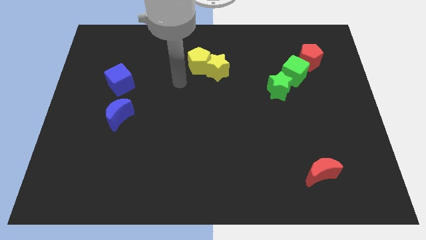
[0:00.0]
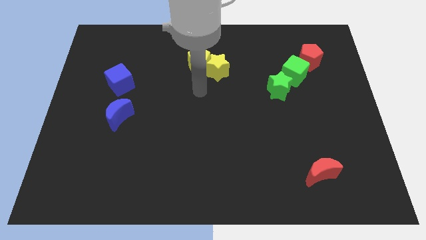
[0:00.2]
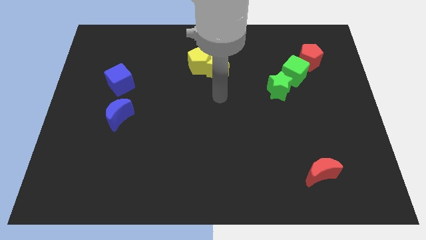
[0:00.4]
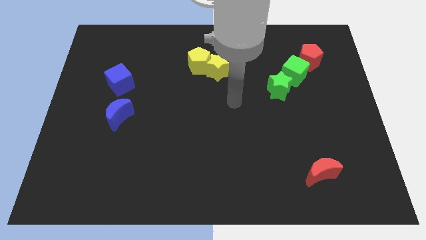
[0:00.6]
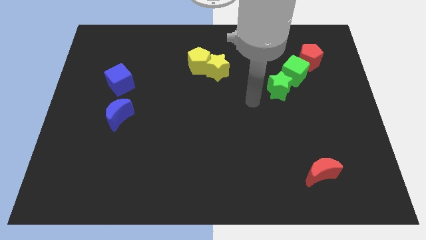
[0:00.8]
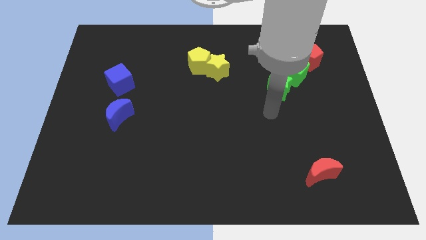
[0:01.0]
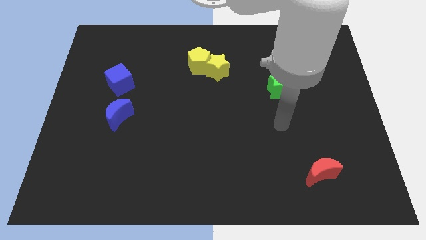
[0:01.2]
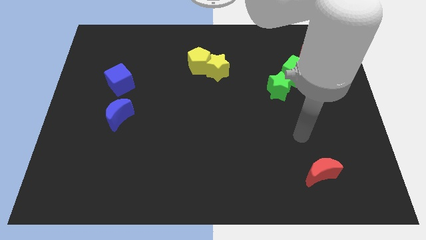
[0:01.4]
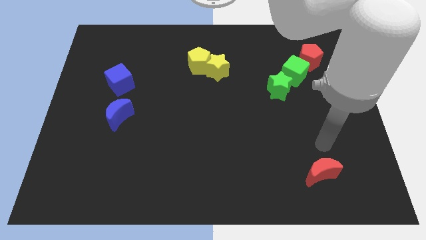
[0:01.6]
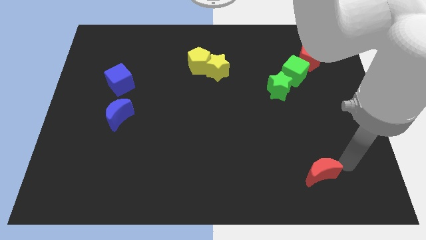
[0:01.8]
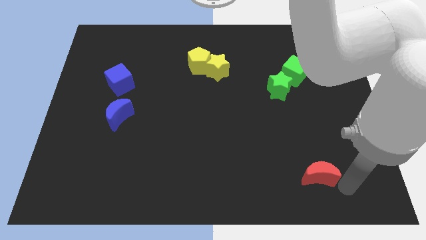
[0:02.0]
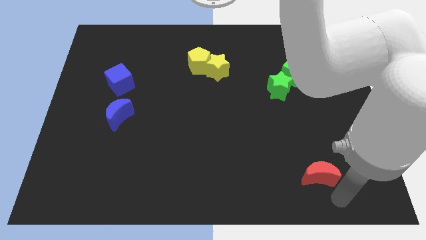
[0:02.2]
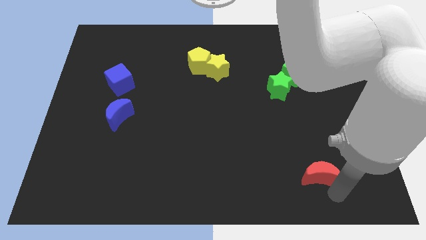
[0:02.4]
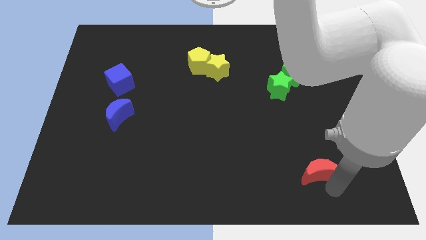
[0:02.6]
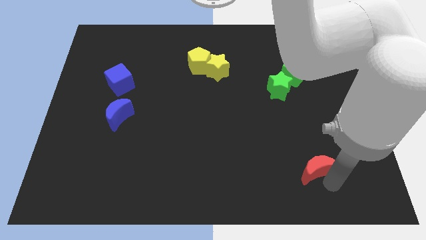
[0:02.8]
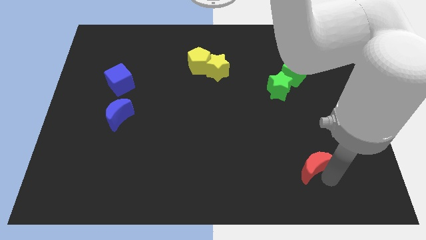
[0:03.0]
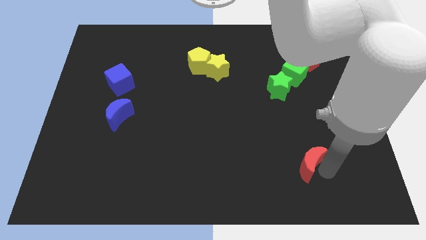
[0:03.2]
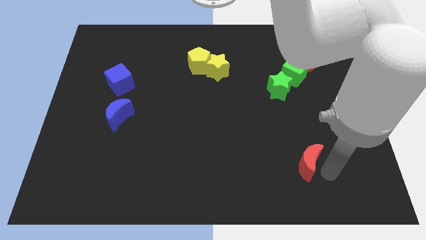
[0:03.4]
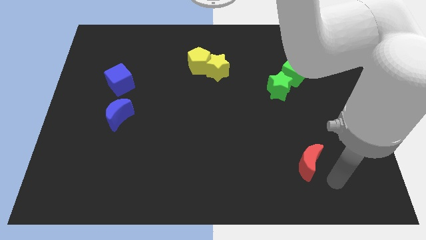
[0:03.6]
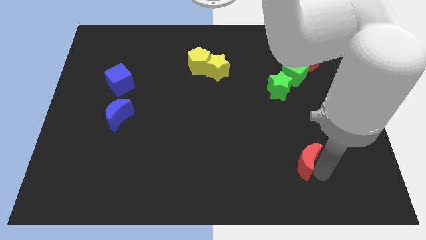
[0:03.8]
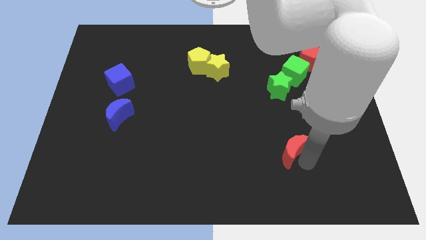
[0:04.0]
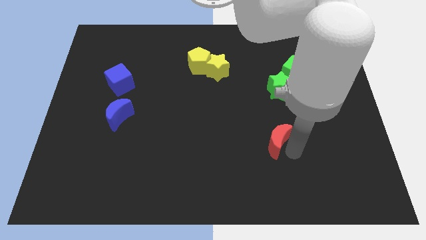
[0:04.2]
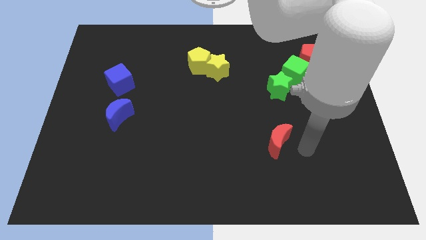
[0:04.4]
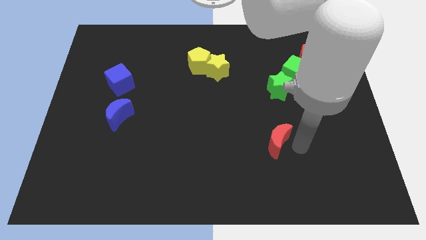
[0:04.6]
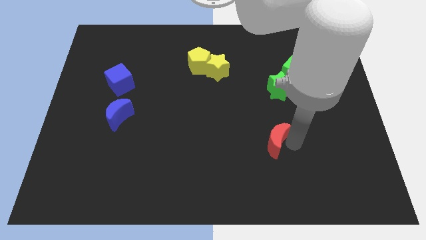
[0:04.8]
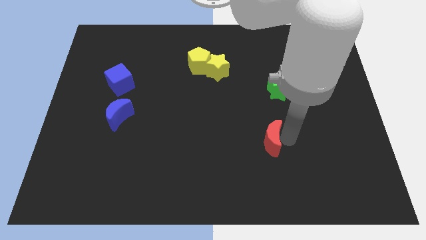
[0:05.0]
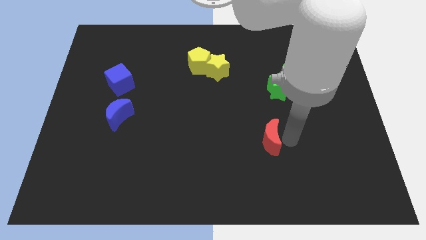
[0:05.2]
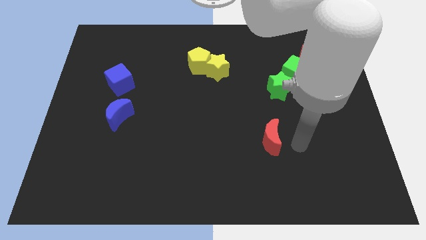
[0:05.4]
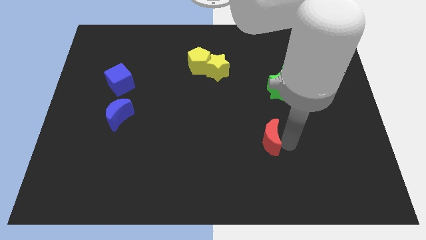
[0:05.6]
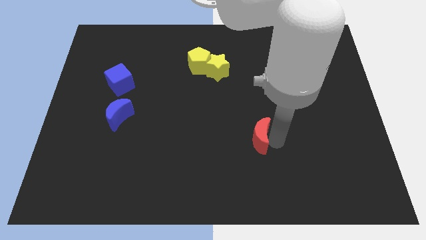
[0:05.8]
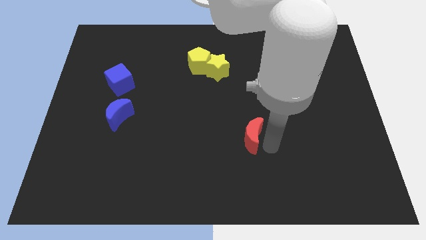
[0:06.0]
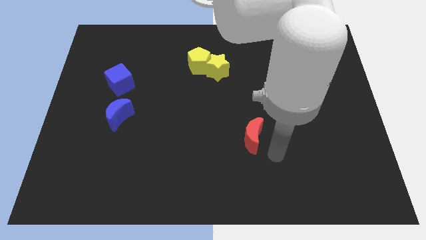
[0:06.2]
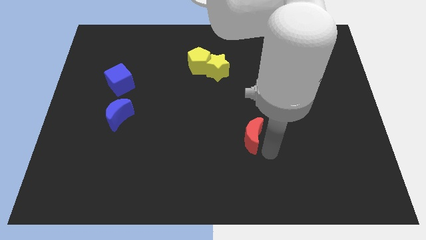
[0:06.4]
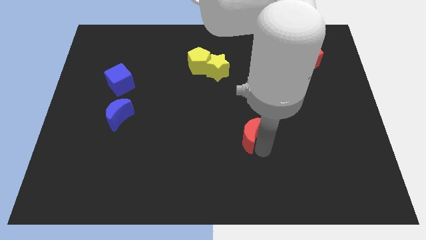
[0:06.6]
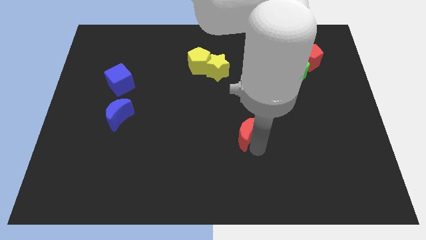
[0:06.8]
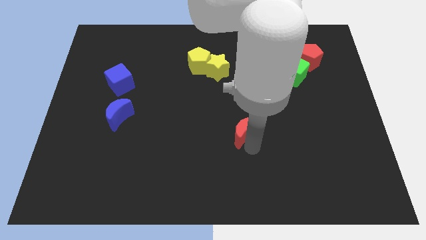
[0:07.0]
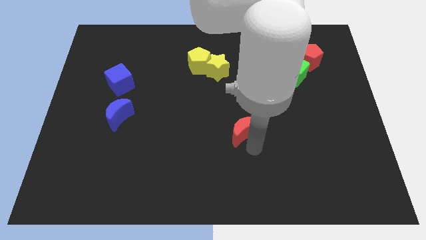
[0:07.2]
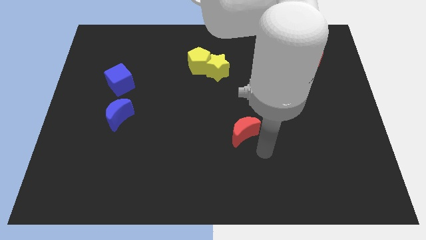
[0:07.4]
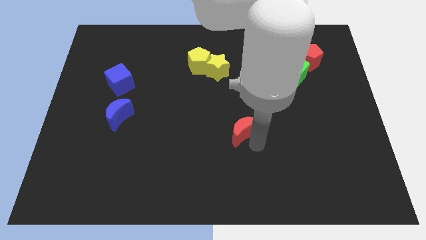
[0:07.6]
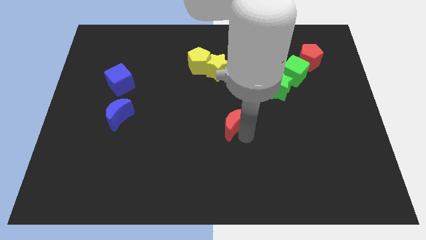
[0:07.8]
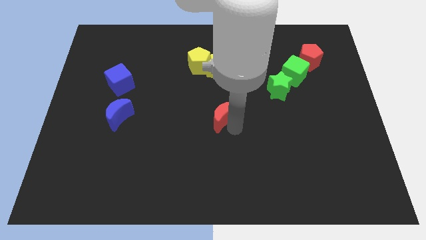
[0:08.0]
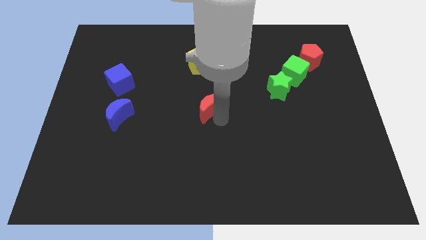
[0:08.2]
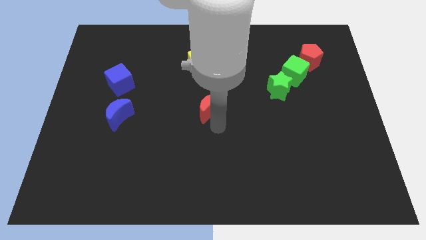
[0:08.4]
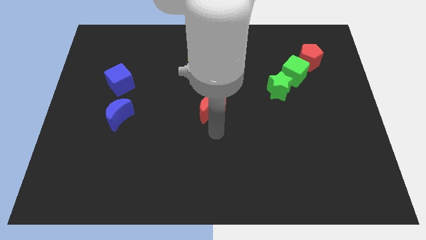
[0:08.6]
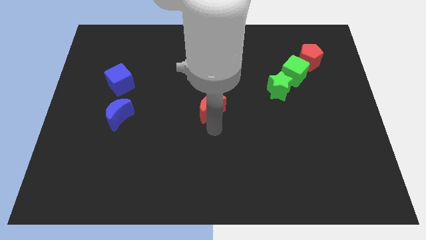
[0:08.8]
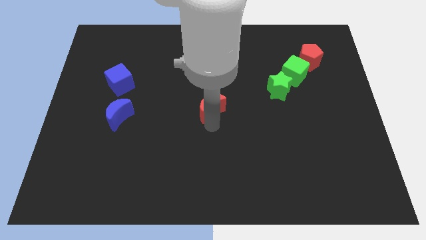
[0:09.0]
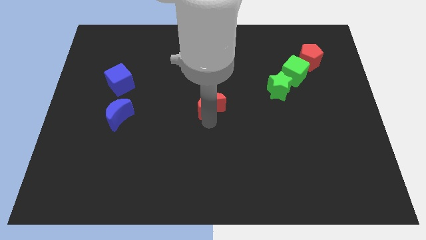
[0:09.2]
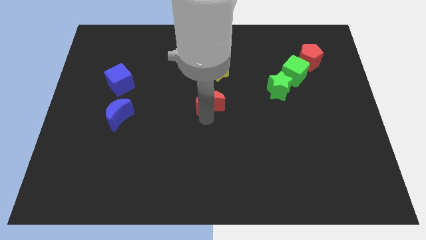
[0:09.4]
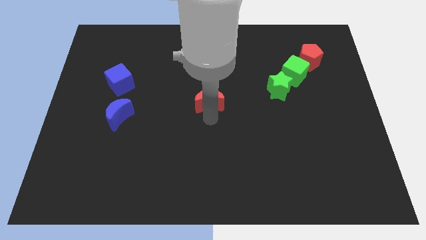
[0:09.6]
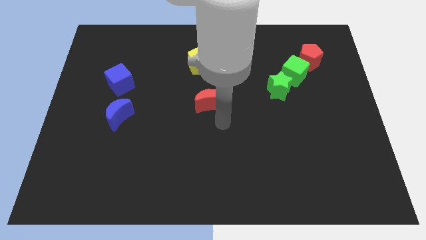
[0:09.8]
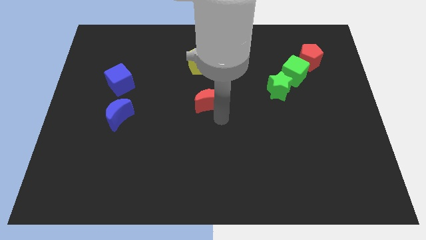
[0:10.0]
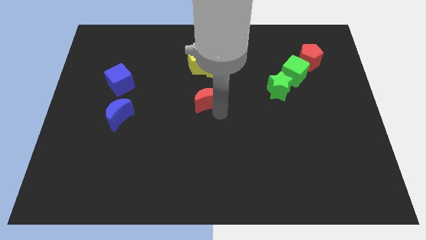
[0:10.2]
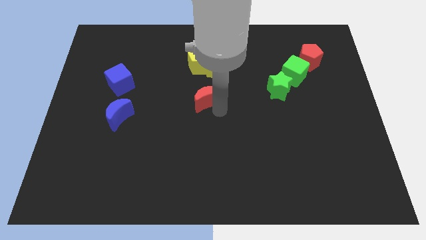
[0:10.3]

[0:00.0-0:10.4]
slide the red moon diagonally down and to the left of the yellow star

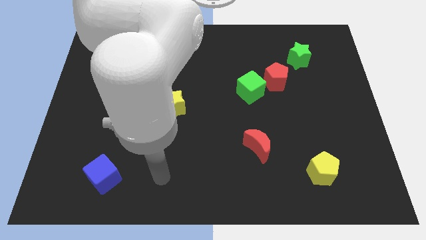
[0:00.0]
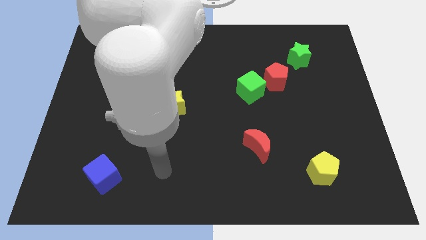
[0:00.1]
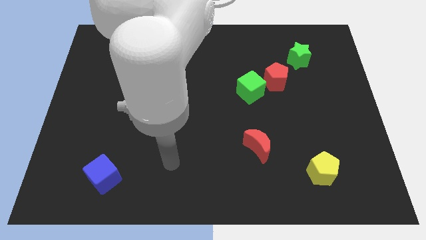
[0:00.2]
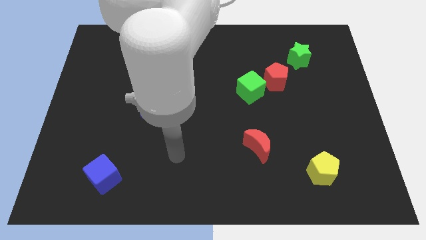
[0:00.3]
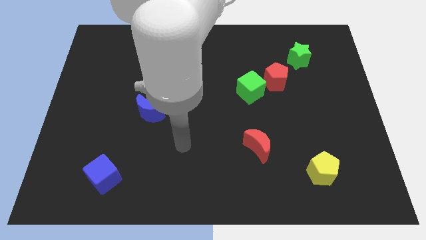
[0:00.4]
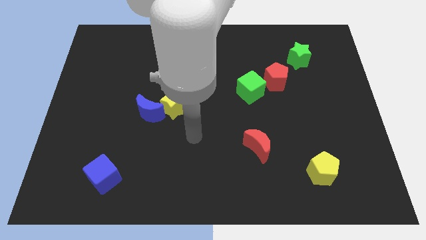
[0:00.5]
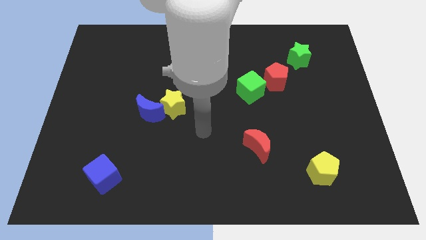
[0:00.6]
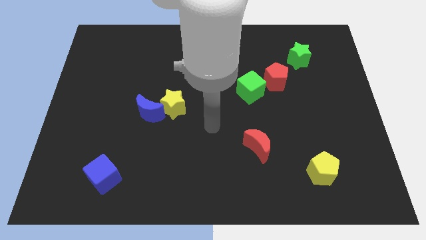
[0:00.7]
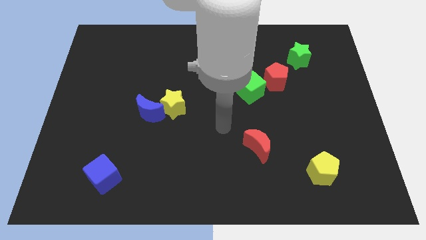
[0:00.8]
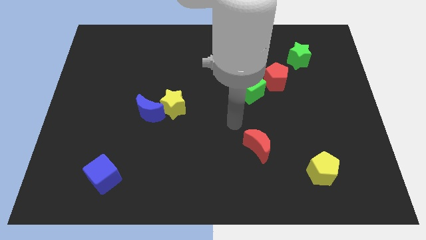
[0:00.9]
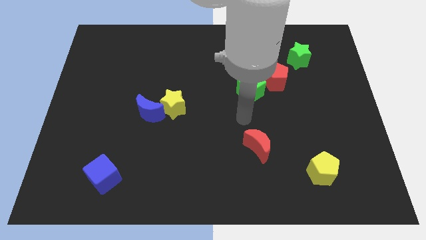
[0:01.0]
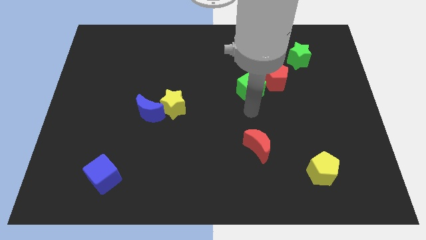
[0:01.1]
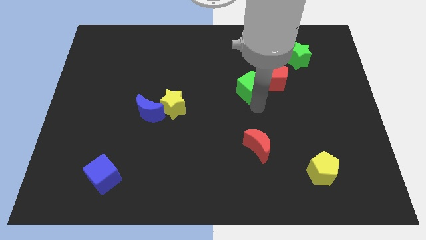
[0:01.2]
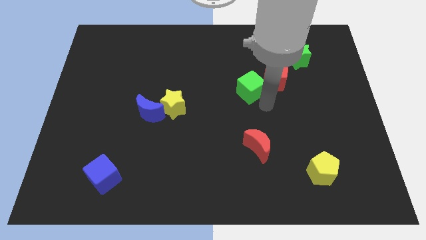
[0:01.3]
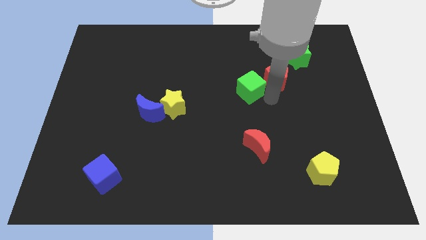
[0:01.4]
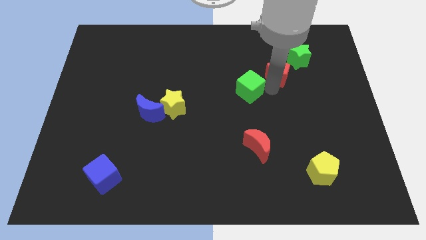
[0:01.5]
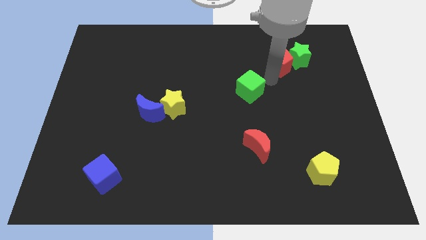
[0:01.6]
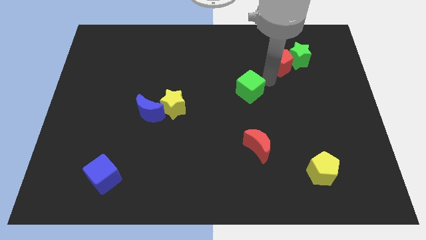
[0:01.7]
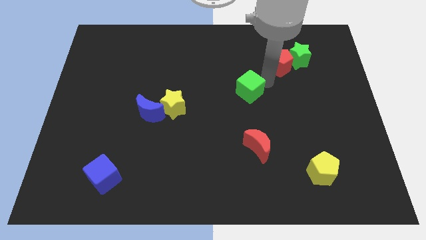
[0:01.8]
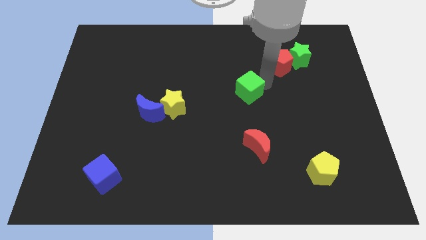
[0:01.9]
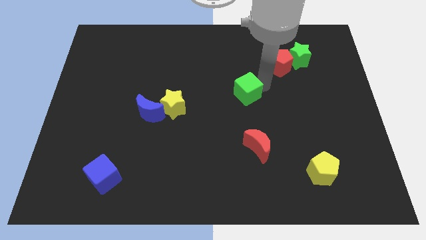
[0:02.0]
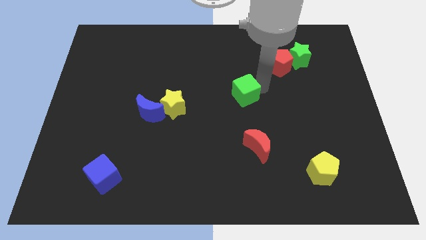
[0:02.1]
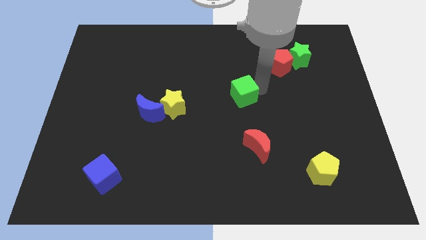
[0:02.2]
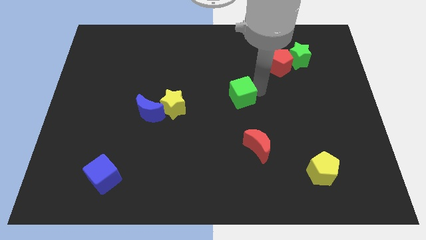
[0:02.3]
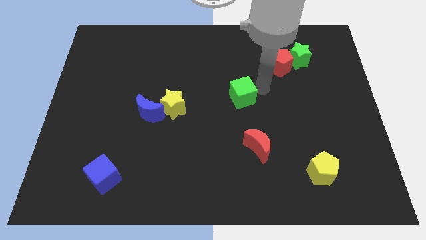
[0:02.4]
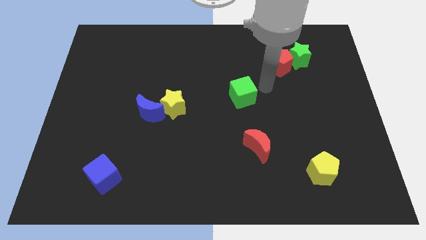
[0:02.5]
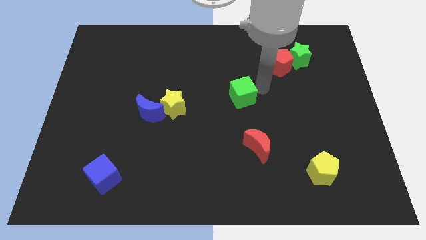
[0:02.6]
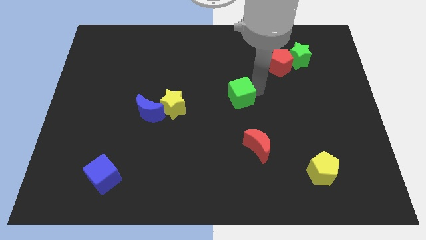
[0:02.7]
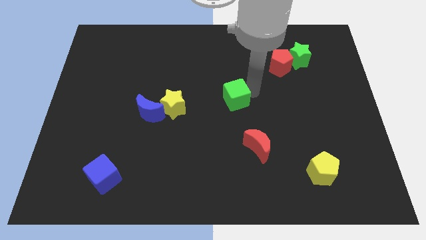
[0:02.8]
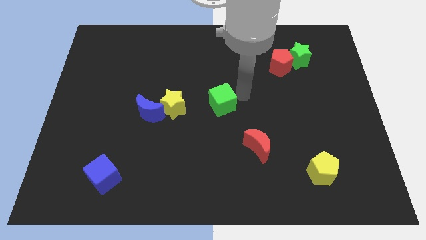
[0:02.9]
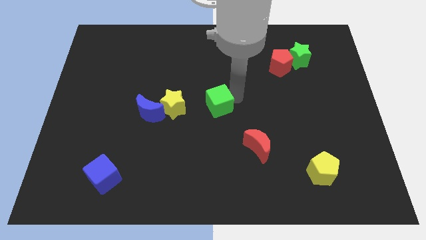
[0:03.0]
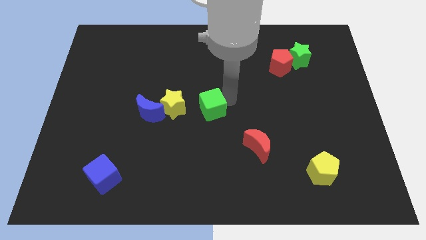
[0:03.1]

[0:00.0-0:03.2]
push the green cube to the right side of the blue moon
